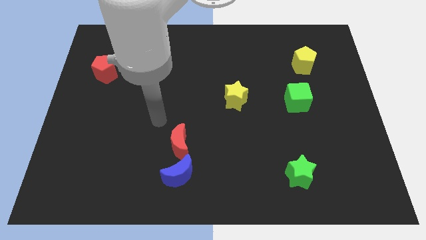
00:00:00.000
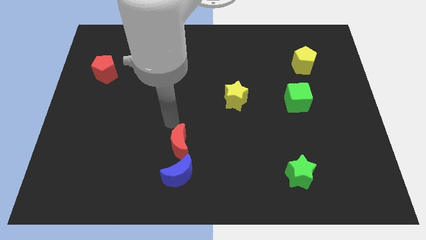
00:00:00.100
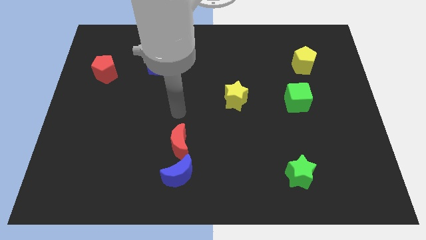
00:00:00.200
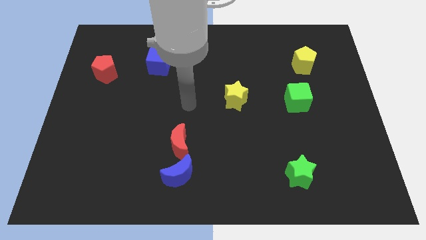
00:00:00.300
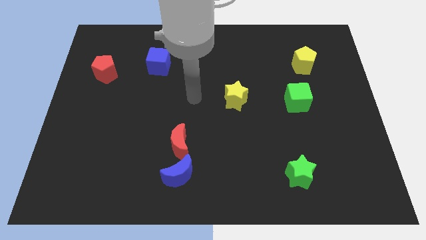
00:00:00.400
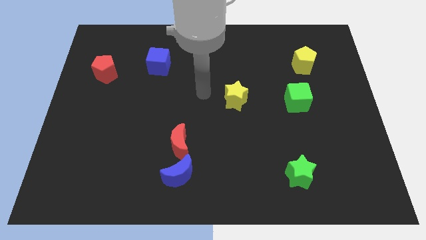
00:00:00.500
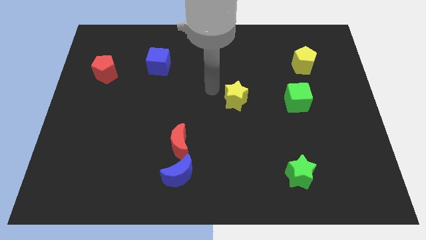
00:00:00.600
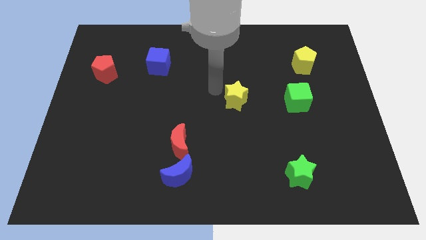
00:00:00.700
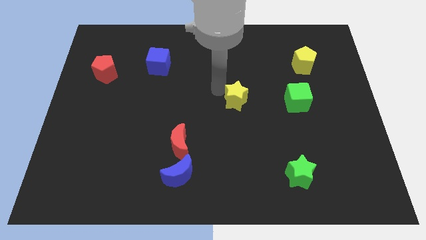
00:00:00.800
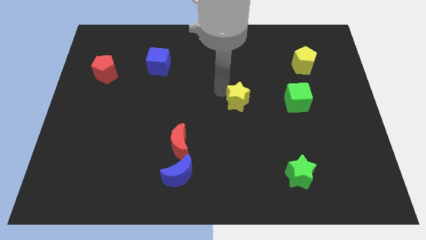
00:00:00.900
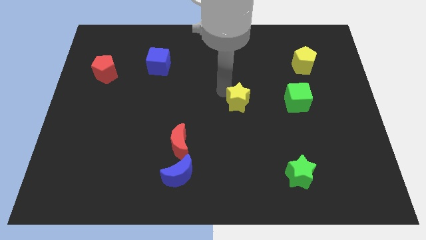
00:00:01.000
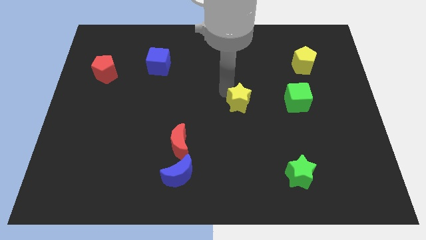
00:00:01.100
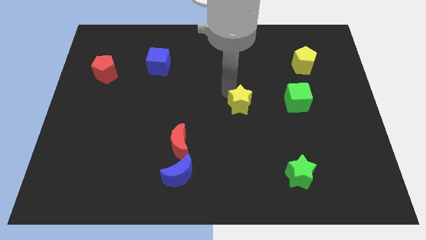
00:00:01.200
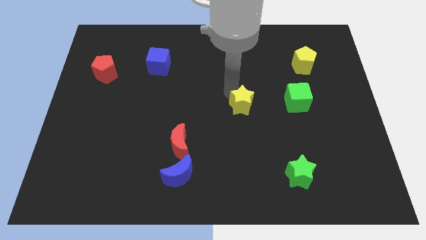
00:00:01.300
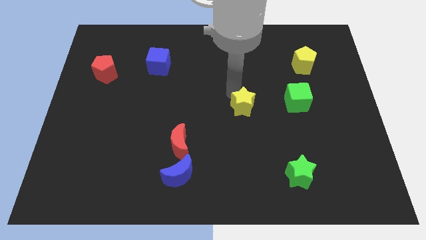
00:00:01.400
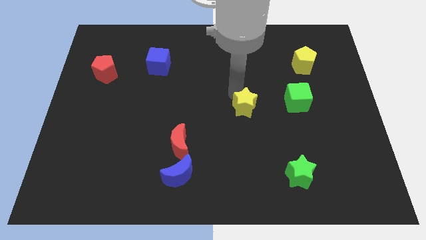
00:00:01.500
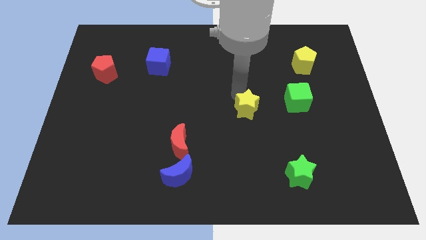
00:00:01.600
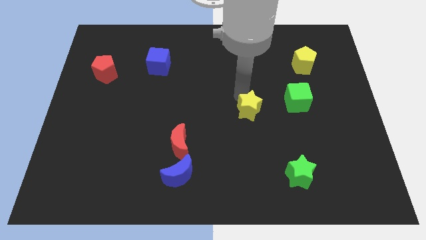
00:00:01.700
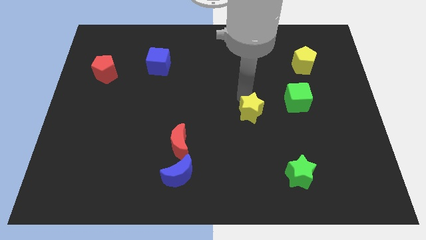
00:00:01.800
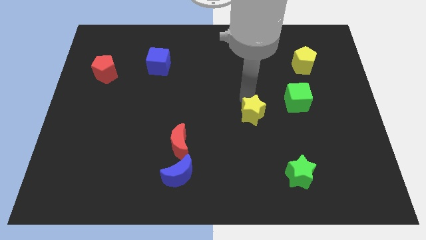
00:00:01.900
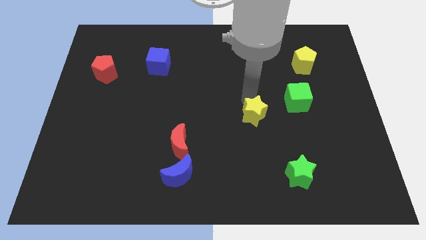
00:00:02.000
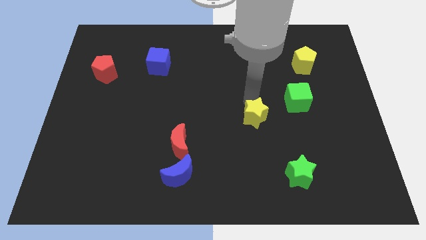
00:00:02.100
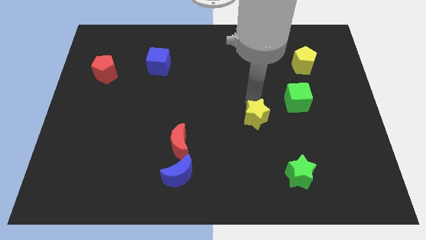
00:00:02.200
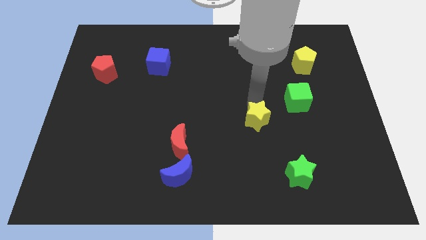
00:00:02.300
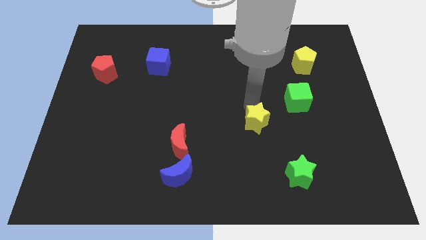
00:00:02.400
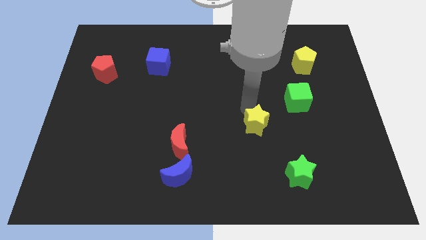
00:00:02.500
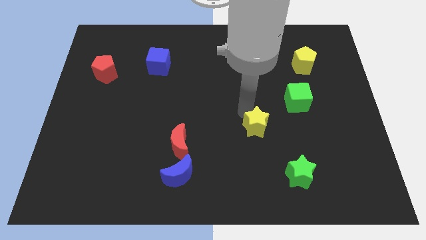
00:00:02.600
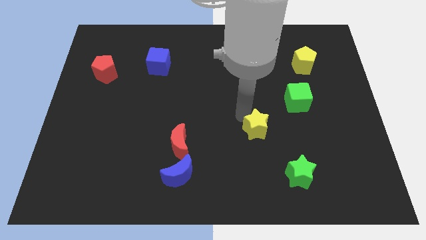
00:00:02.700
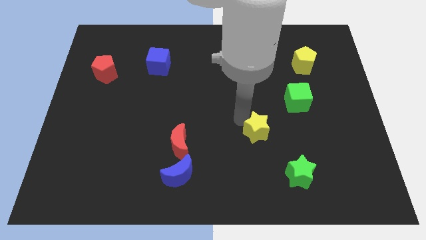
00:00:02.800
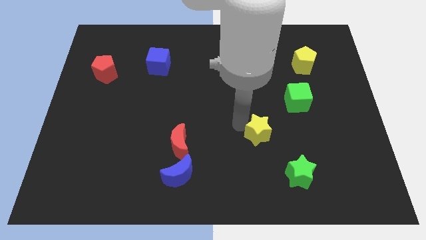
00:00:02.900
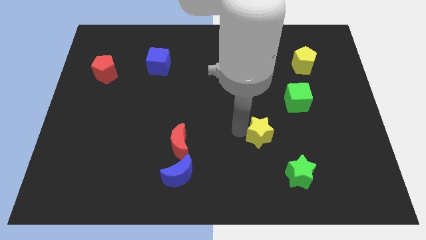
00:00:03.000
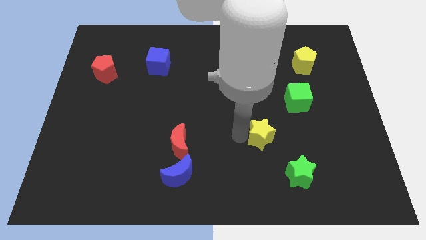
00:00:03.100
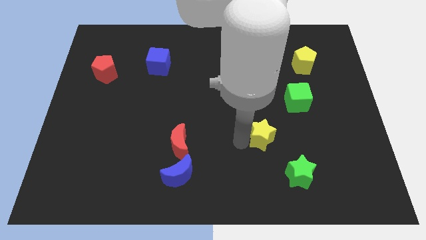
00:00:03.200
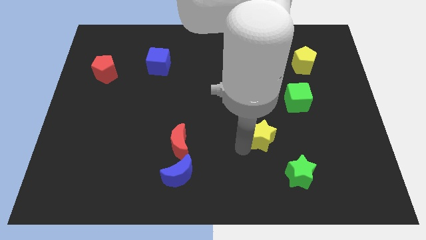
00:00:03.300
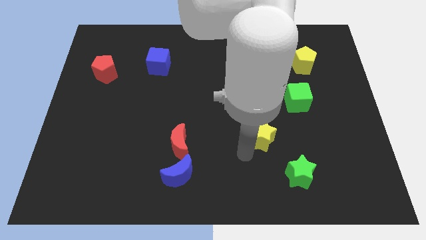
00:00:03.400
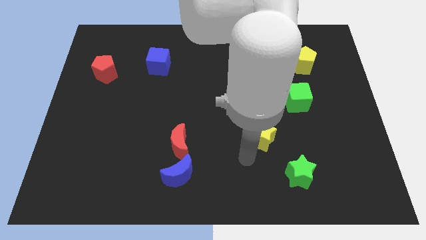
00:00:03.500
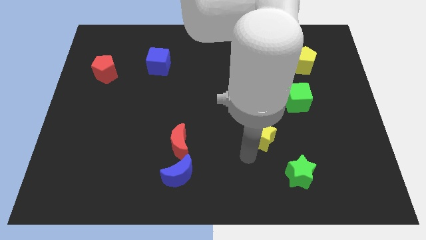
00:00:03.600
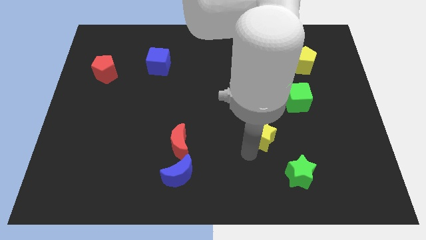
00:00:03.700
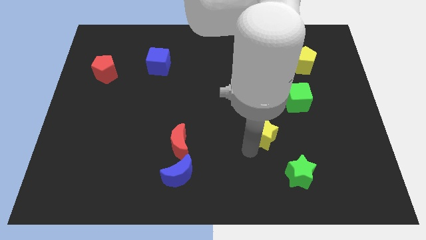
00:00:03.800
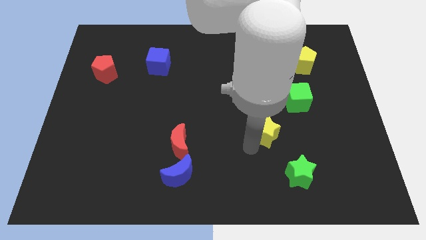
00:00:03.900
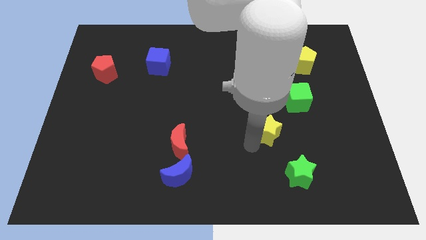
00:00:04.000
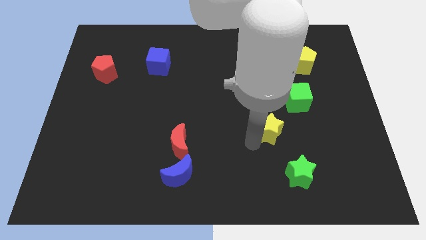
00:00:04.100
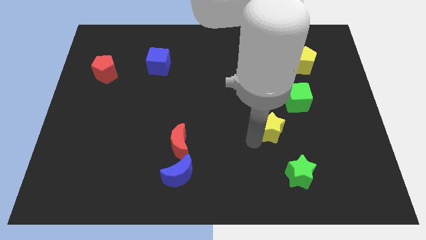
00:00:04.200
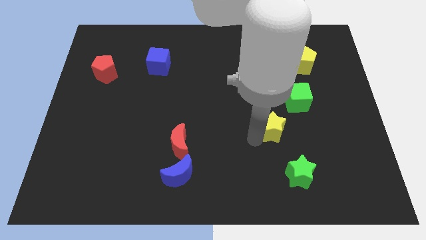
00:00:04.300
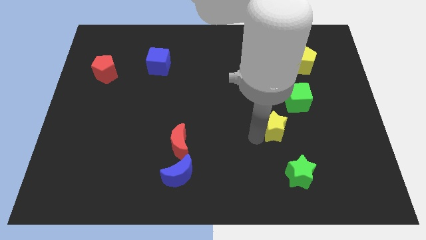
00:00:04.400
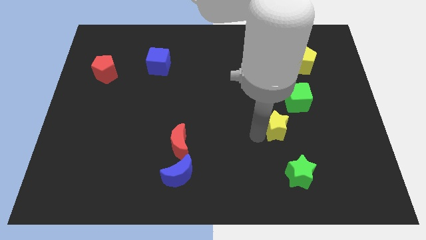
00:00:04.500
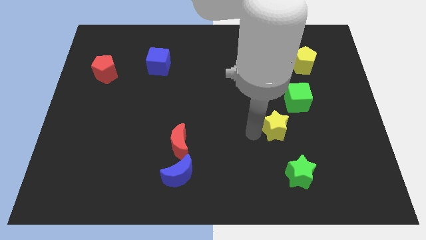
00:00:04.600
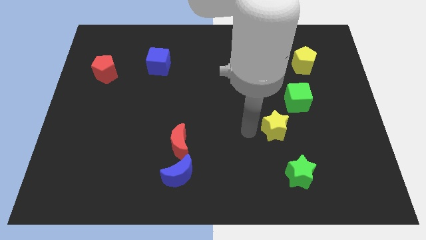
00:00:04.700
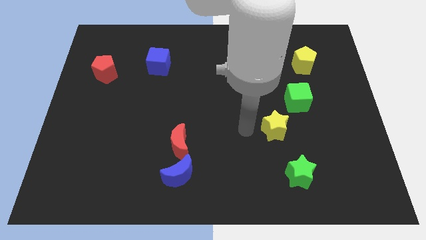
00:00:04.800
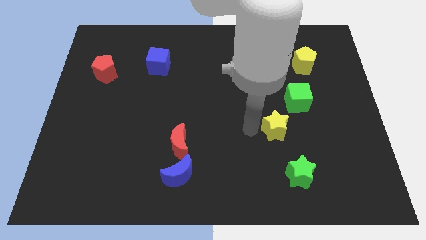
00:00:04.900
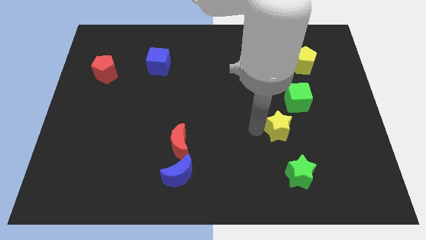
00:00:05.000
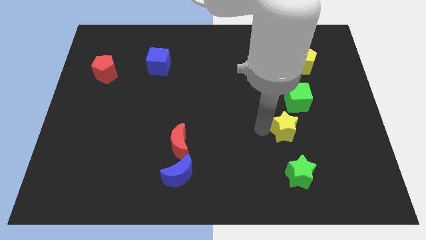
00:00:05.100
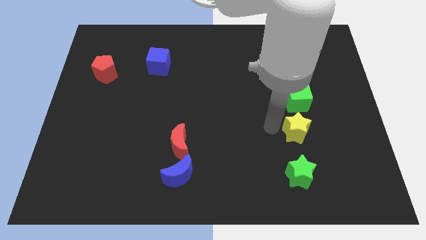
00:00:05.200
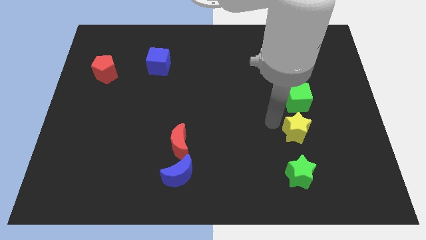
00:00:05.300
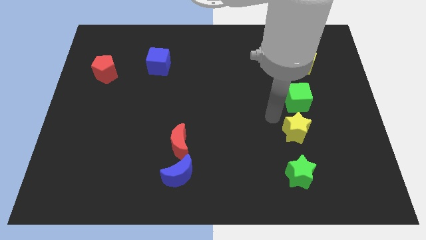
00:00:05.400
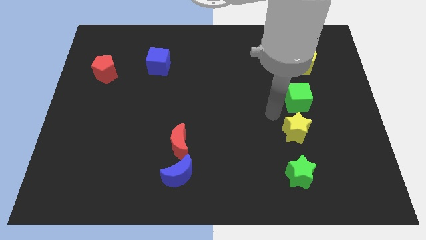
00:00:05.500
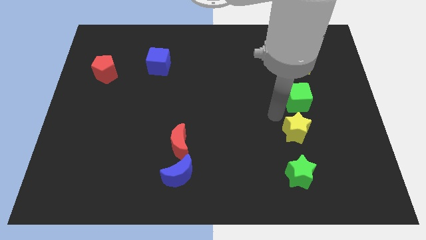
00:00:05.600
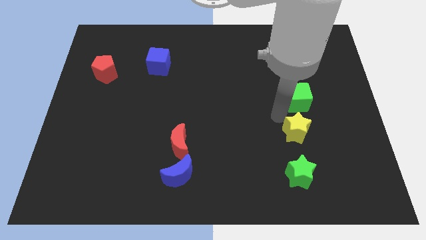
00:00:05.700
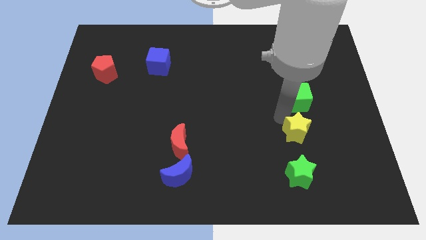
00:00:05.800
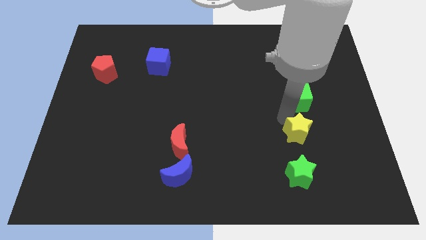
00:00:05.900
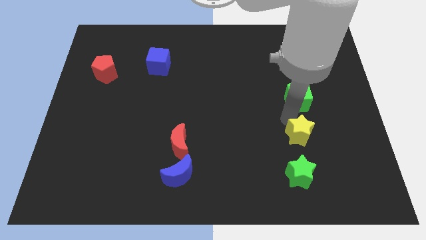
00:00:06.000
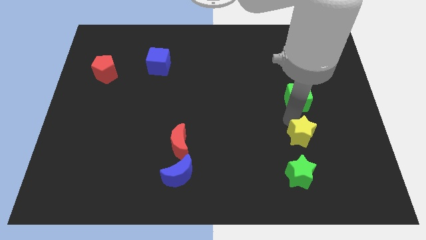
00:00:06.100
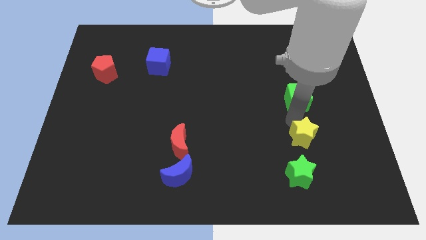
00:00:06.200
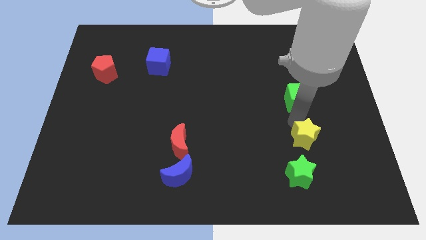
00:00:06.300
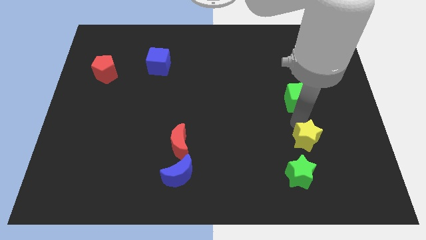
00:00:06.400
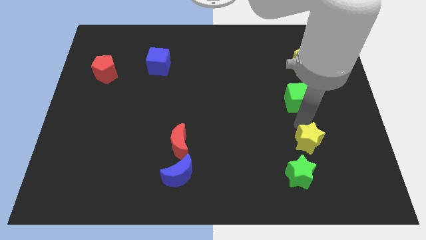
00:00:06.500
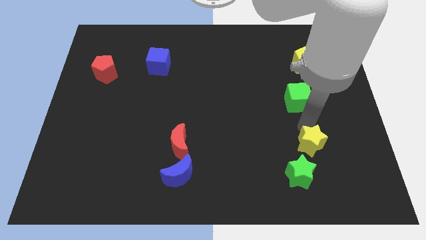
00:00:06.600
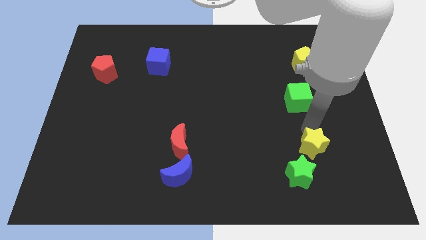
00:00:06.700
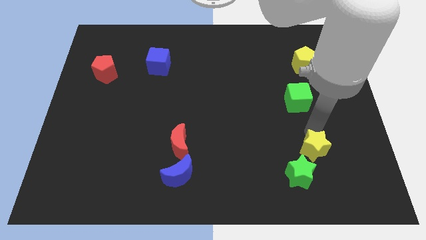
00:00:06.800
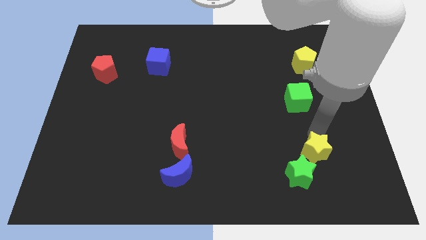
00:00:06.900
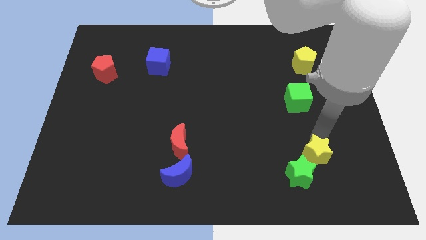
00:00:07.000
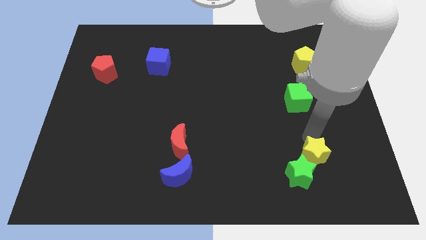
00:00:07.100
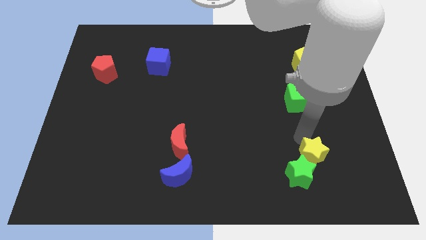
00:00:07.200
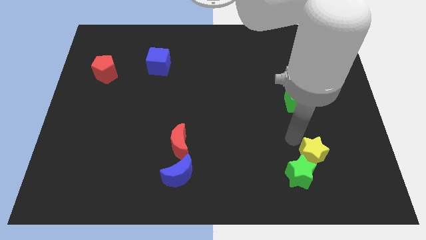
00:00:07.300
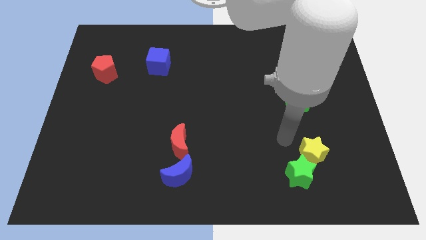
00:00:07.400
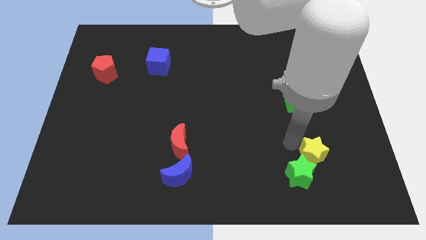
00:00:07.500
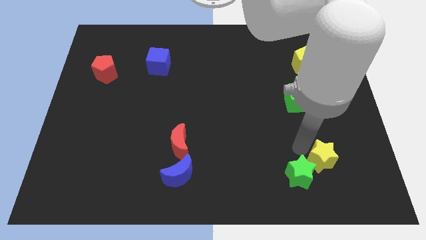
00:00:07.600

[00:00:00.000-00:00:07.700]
move the yellow star right of the green star

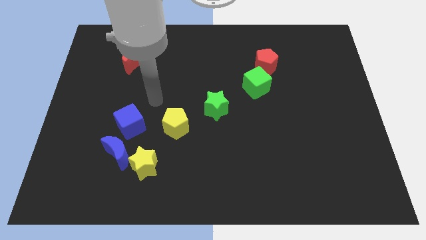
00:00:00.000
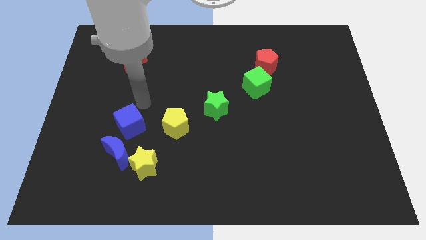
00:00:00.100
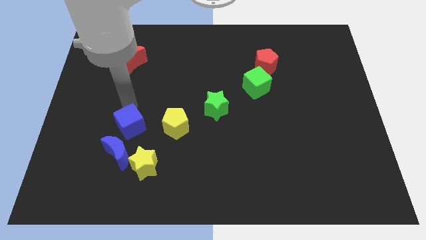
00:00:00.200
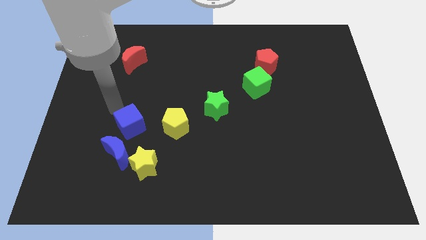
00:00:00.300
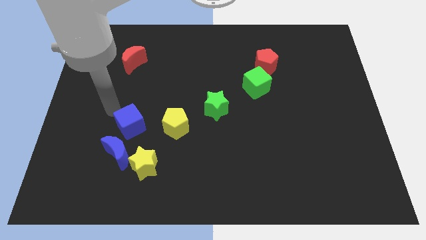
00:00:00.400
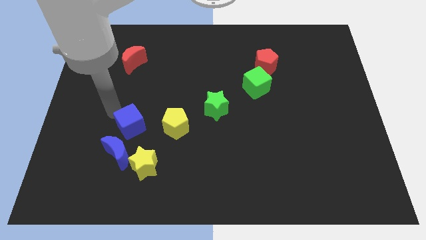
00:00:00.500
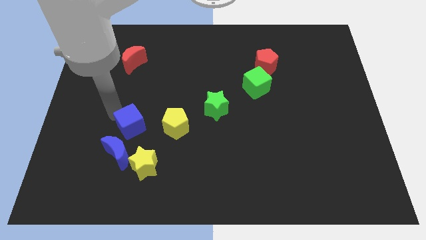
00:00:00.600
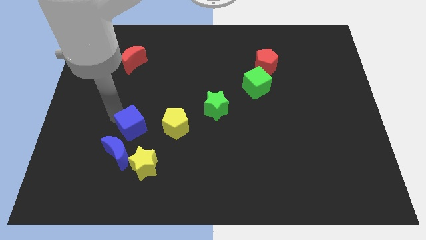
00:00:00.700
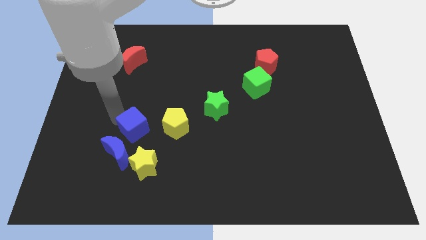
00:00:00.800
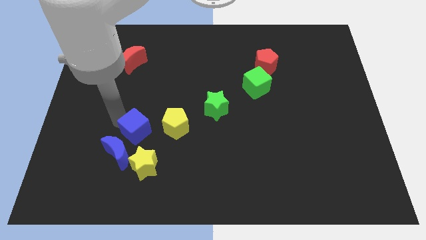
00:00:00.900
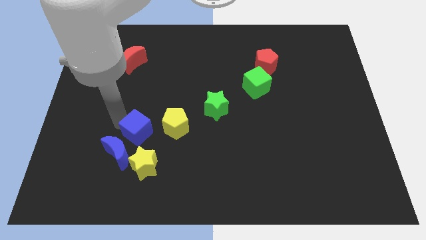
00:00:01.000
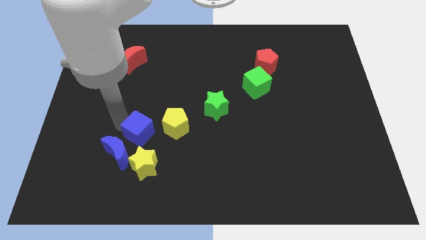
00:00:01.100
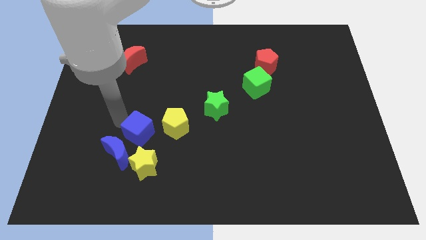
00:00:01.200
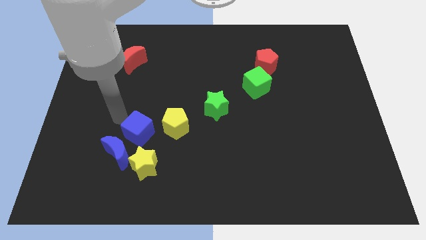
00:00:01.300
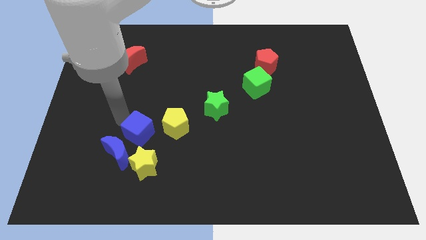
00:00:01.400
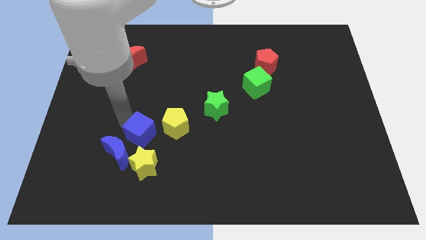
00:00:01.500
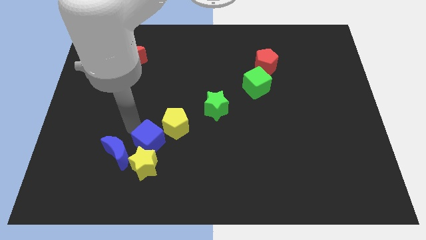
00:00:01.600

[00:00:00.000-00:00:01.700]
move the blue cube to the right of the blue moon
